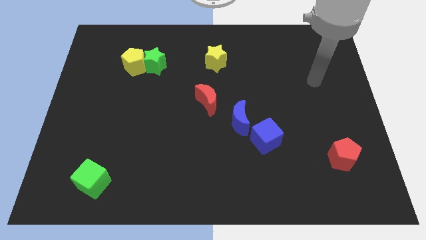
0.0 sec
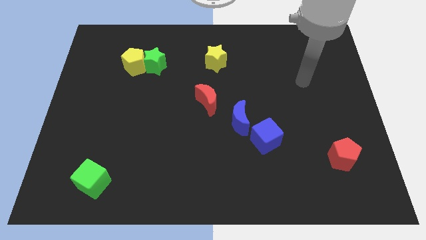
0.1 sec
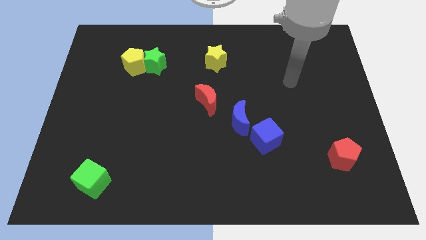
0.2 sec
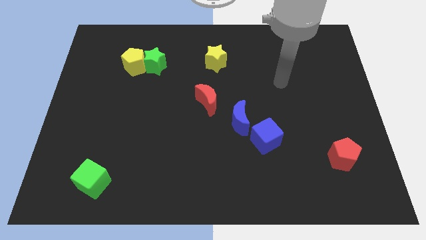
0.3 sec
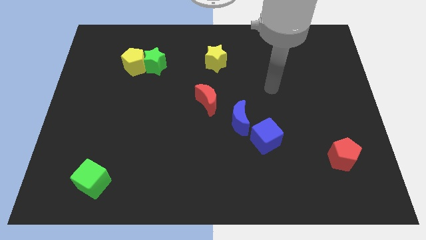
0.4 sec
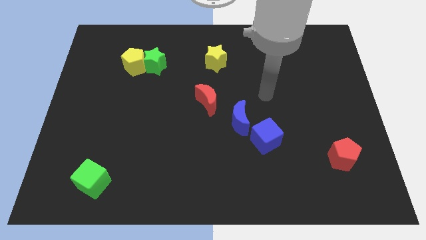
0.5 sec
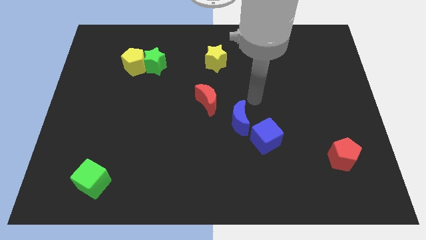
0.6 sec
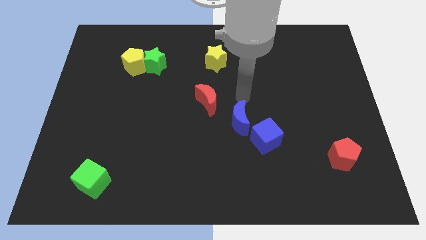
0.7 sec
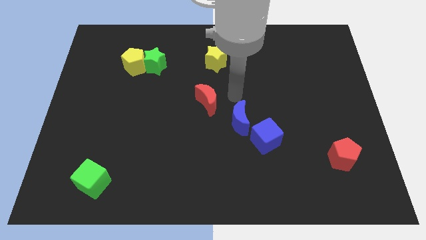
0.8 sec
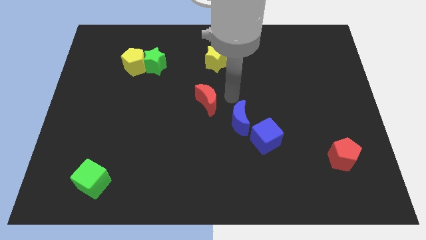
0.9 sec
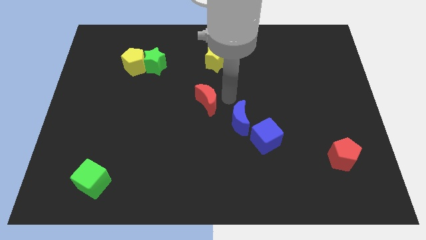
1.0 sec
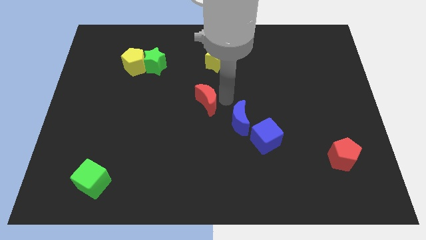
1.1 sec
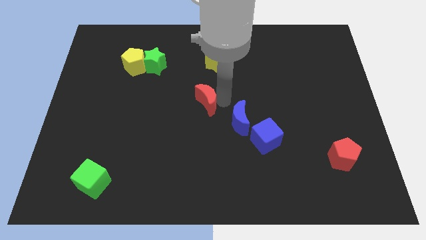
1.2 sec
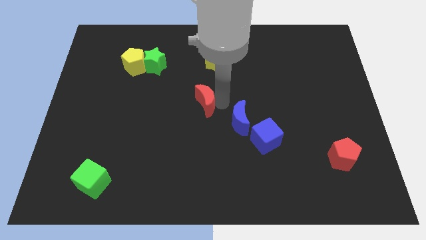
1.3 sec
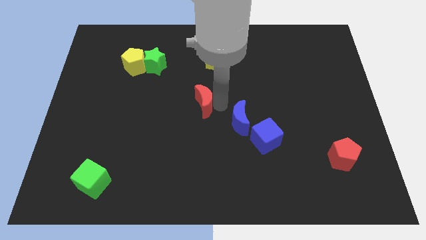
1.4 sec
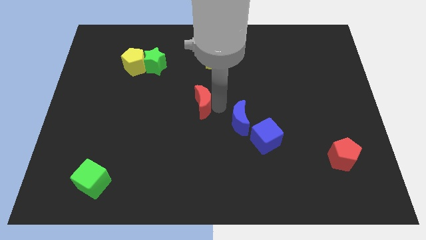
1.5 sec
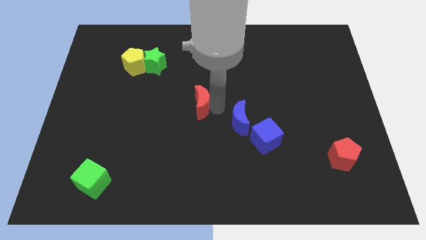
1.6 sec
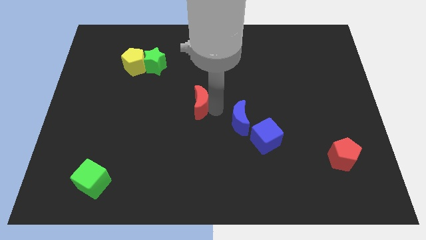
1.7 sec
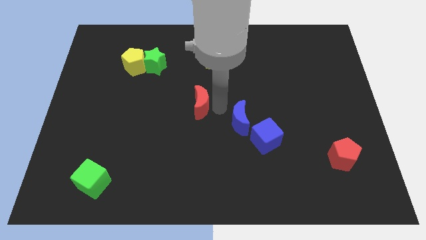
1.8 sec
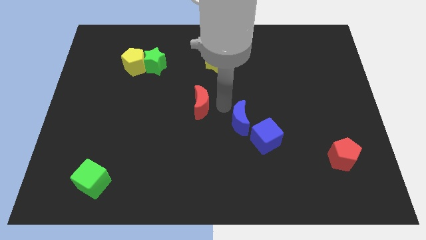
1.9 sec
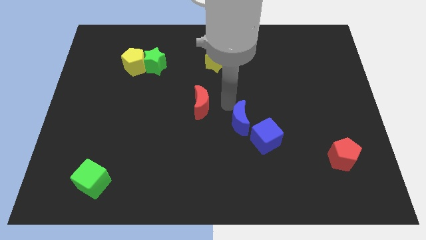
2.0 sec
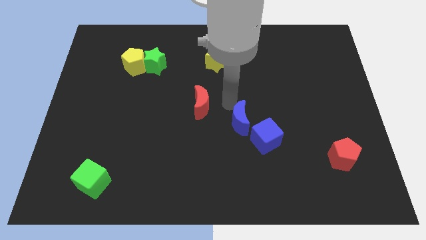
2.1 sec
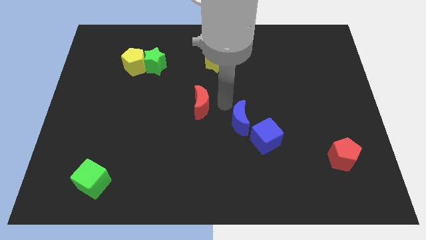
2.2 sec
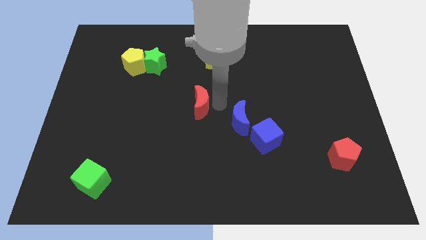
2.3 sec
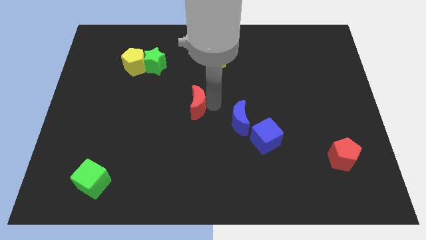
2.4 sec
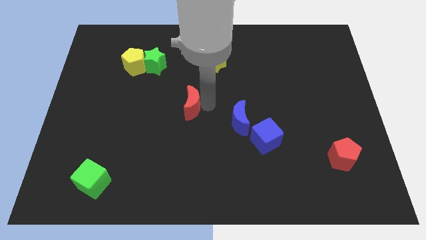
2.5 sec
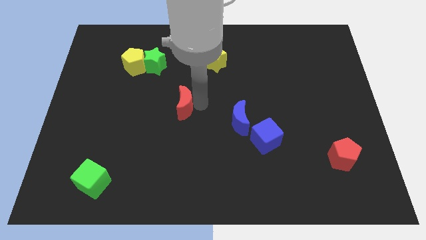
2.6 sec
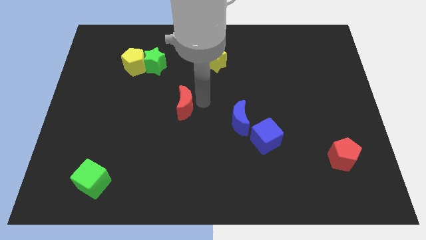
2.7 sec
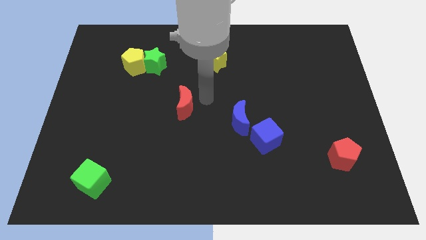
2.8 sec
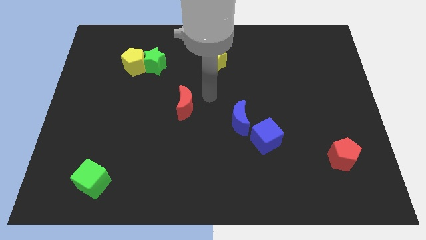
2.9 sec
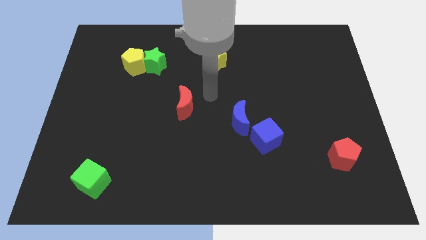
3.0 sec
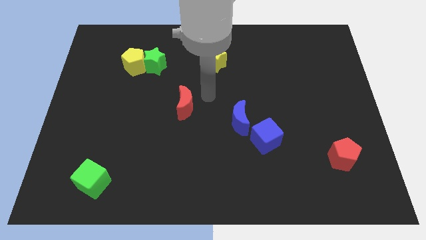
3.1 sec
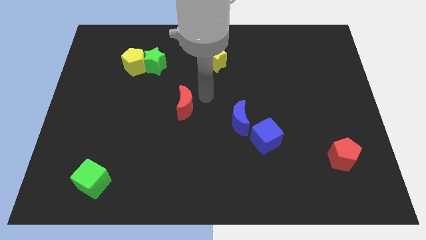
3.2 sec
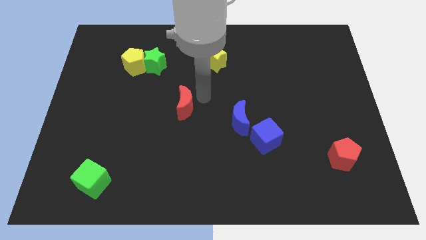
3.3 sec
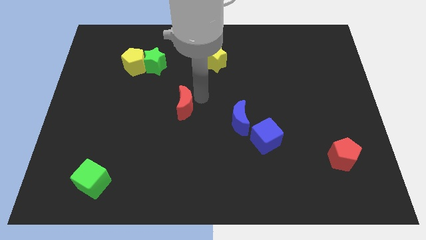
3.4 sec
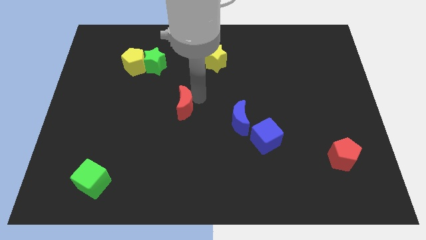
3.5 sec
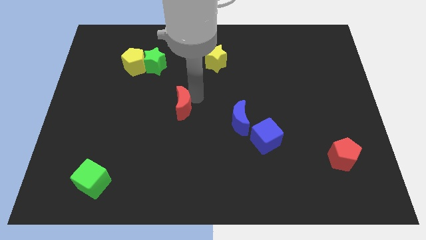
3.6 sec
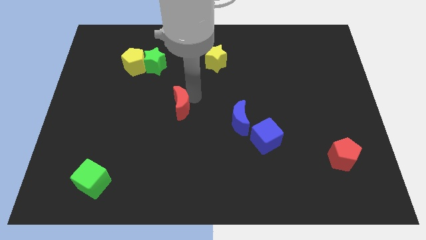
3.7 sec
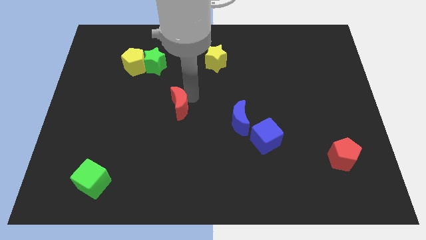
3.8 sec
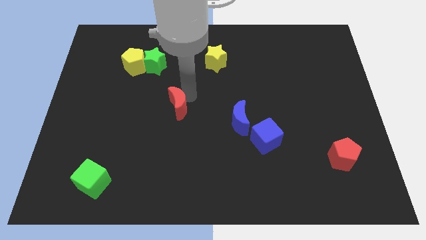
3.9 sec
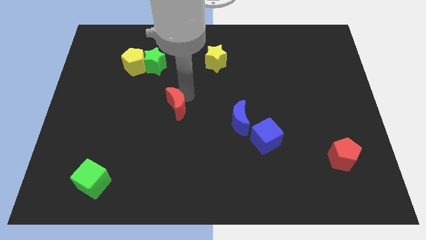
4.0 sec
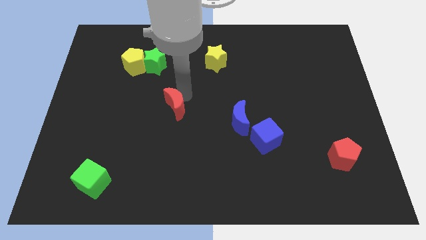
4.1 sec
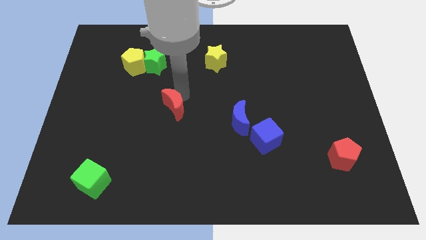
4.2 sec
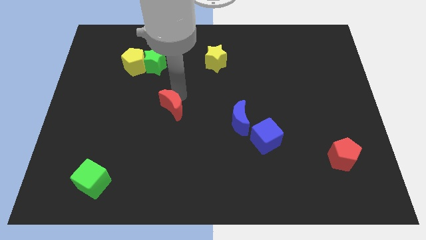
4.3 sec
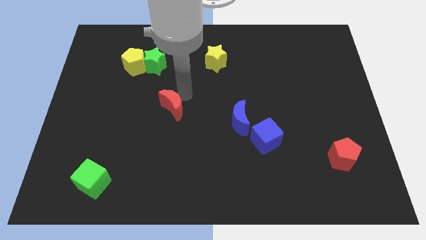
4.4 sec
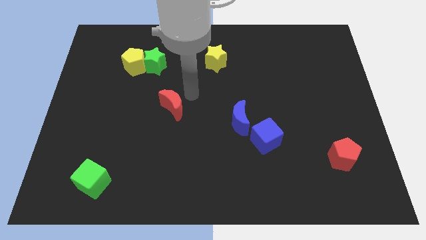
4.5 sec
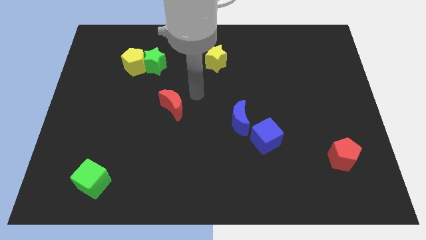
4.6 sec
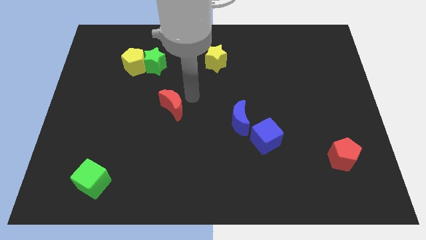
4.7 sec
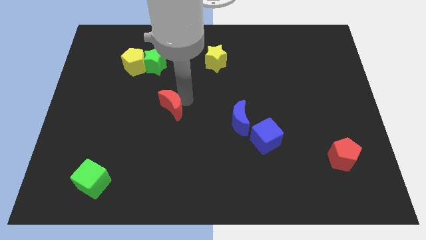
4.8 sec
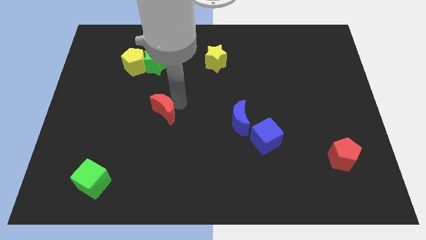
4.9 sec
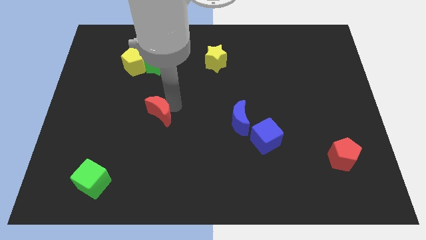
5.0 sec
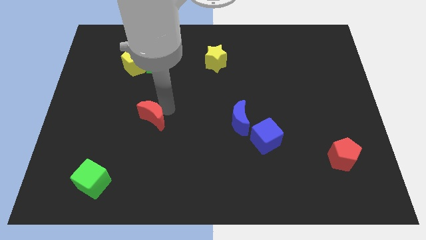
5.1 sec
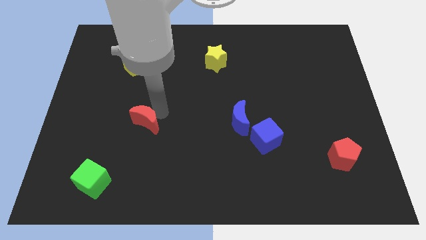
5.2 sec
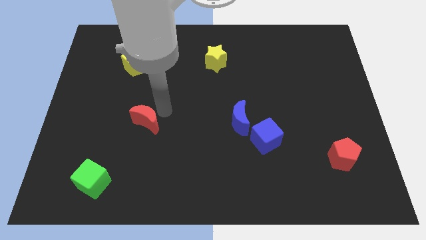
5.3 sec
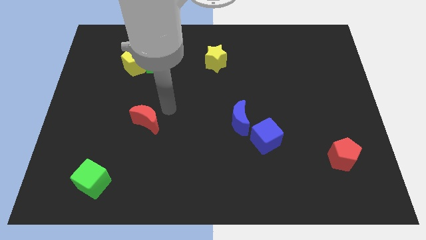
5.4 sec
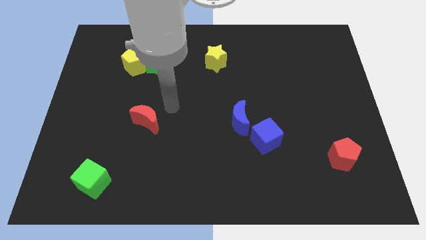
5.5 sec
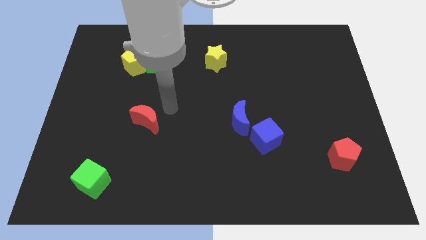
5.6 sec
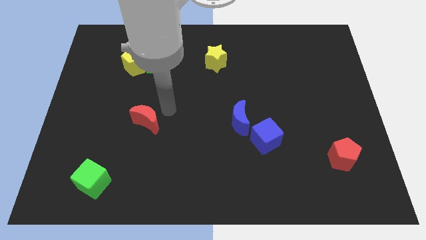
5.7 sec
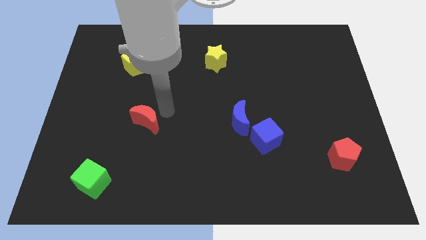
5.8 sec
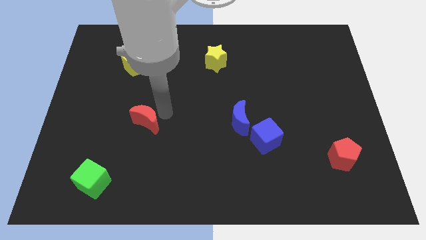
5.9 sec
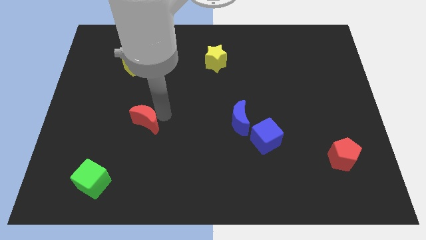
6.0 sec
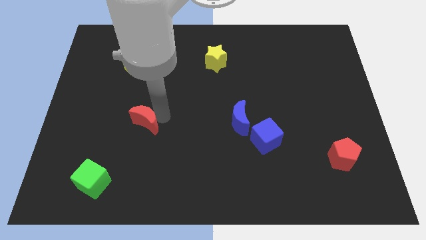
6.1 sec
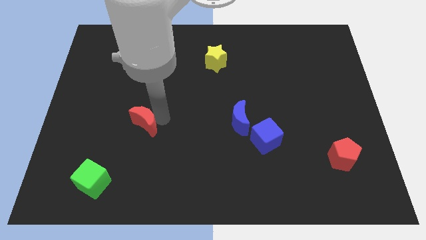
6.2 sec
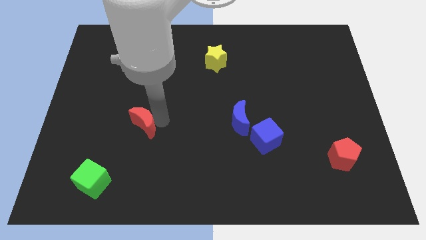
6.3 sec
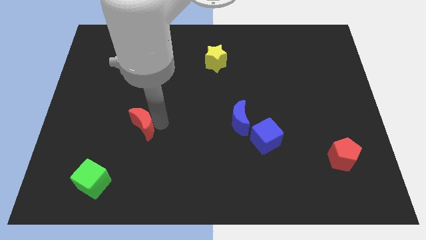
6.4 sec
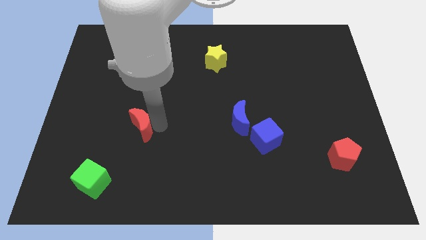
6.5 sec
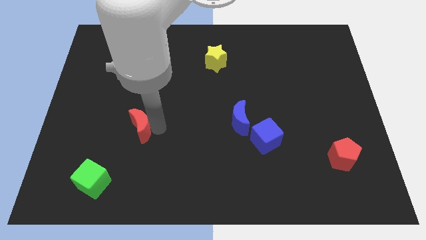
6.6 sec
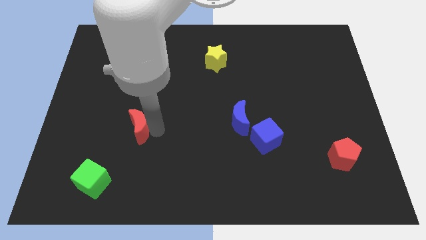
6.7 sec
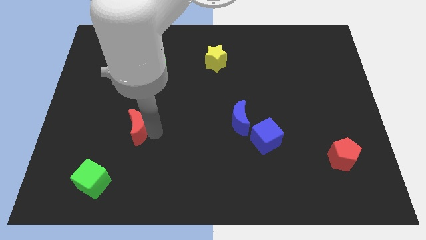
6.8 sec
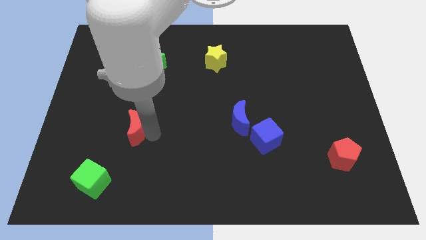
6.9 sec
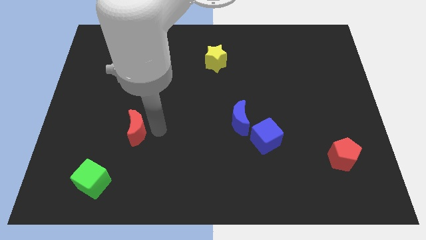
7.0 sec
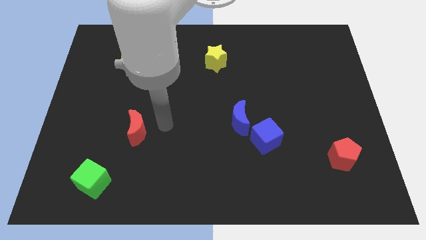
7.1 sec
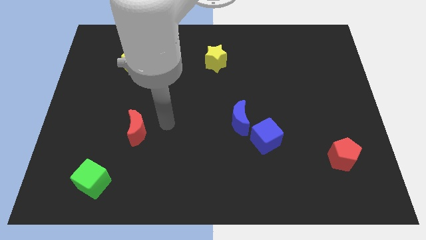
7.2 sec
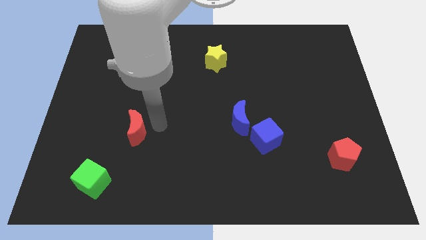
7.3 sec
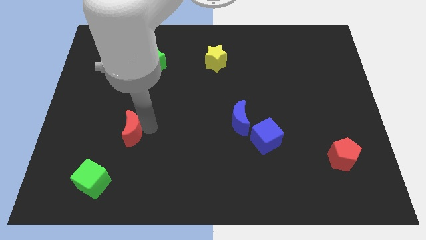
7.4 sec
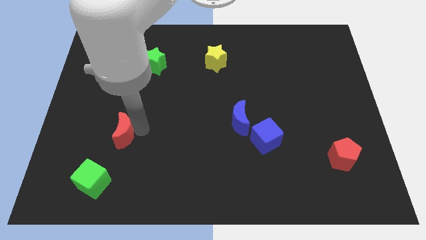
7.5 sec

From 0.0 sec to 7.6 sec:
push the red moon to the top side of the green cube
